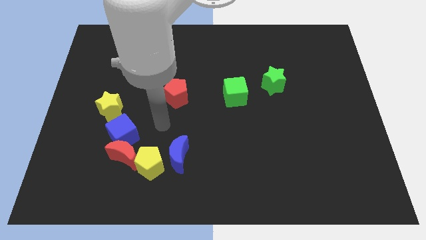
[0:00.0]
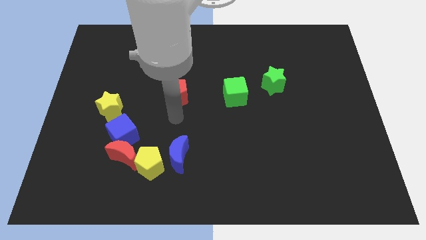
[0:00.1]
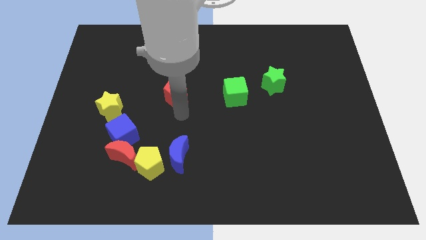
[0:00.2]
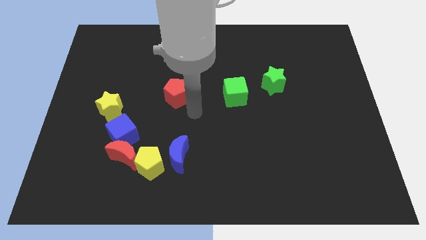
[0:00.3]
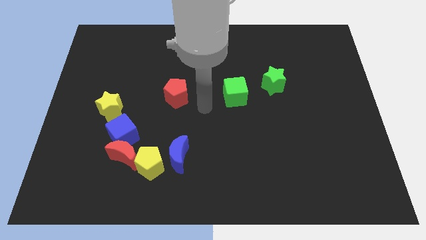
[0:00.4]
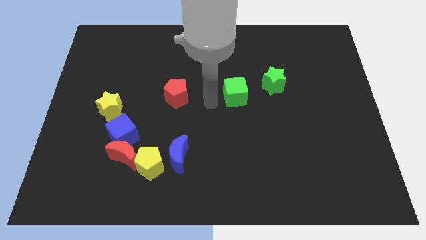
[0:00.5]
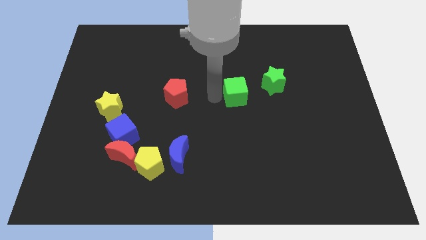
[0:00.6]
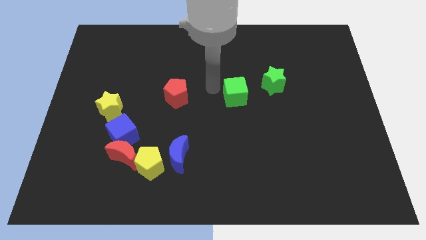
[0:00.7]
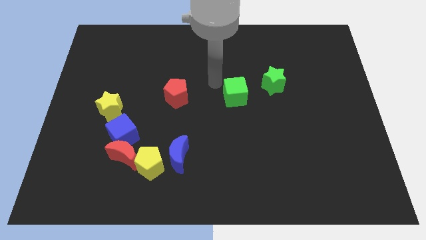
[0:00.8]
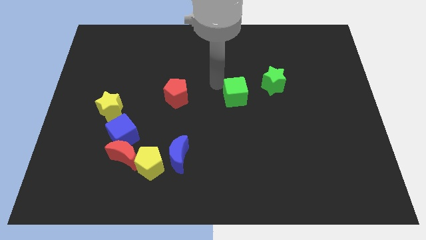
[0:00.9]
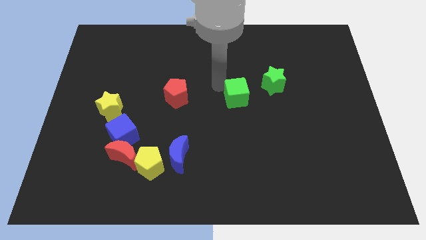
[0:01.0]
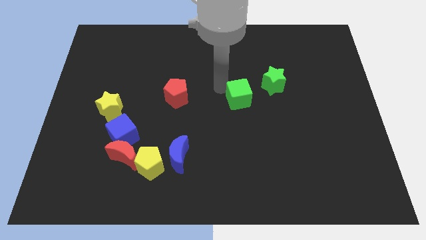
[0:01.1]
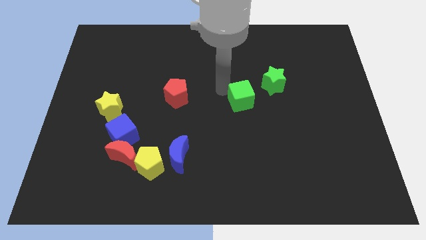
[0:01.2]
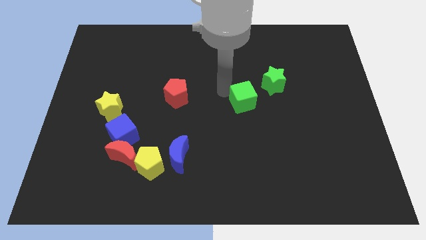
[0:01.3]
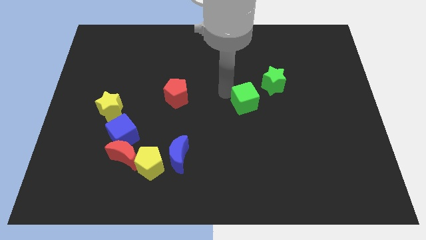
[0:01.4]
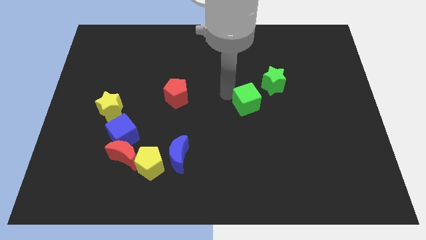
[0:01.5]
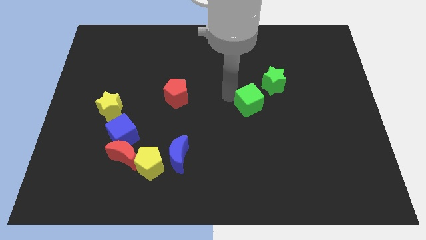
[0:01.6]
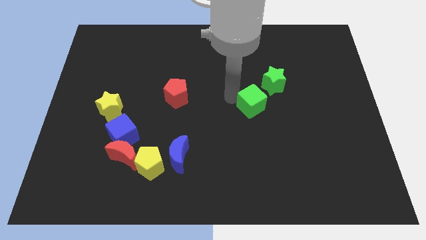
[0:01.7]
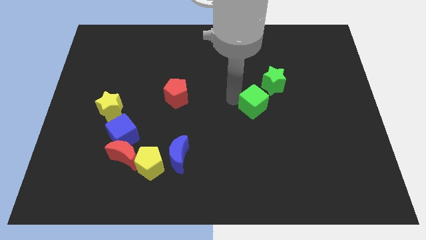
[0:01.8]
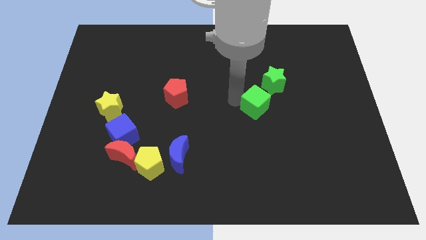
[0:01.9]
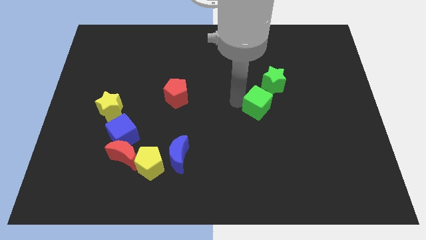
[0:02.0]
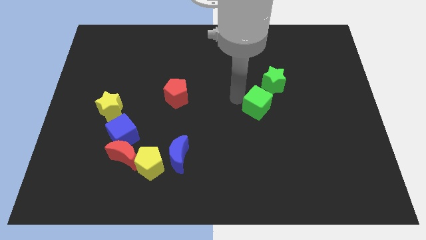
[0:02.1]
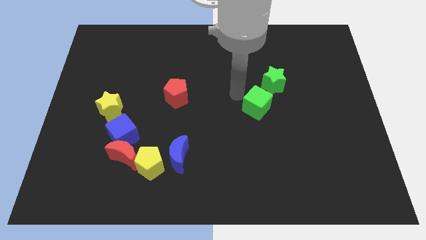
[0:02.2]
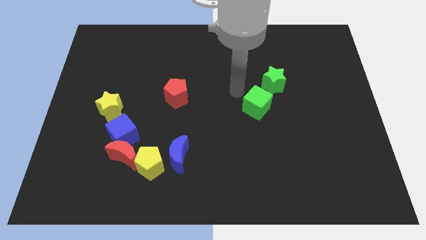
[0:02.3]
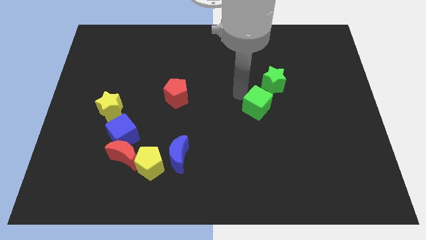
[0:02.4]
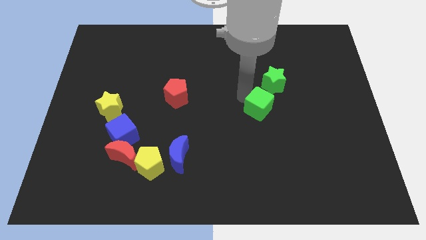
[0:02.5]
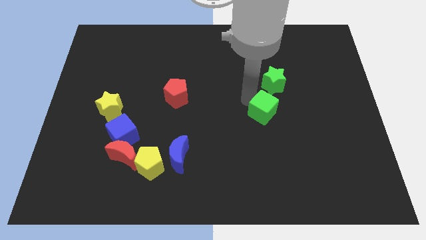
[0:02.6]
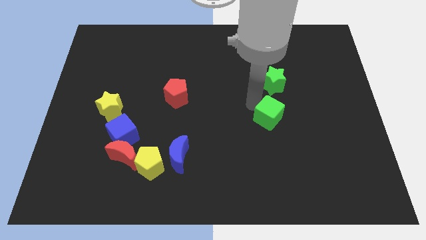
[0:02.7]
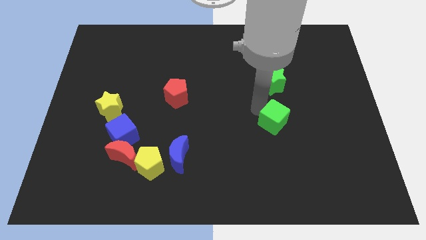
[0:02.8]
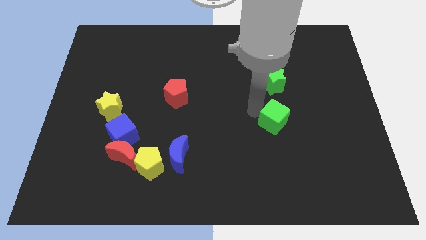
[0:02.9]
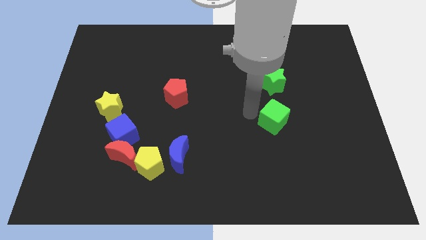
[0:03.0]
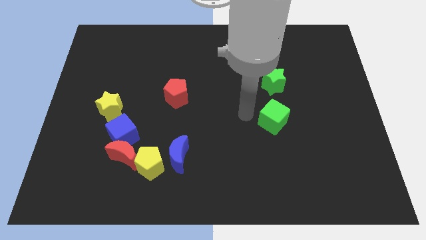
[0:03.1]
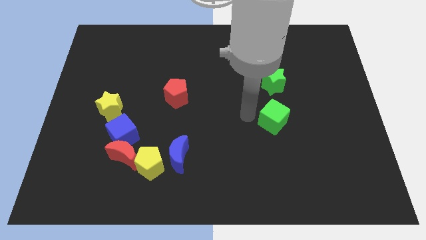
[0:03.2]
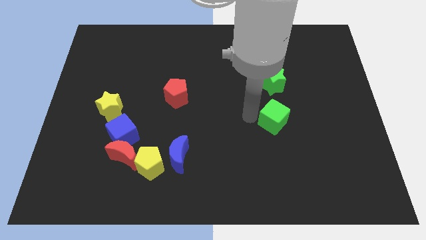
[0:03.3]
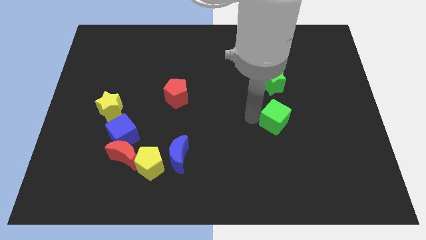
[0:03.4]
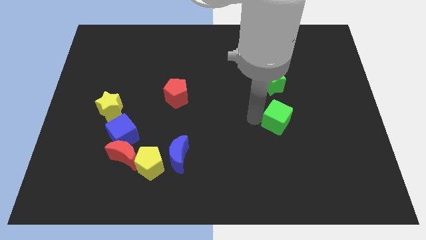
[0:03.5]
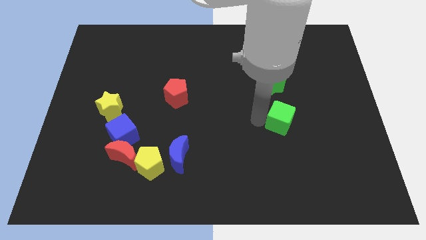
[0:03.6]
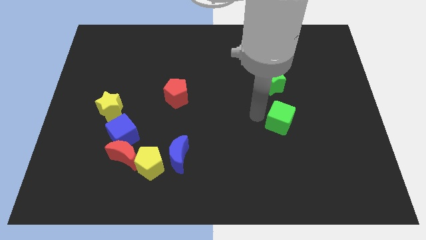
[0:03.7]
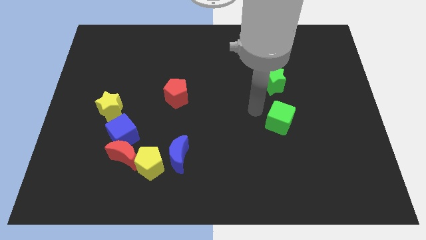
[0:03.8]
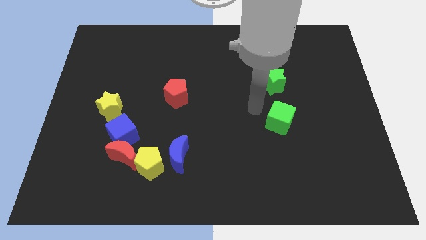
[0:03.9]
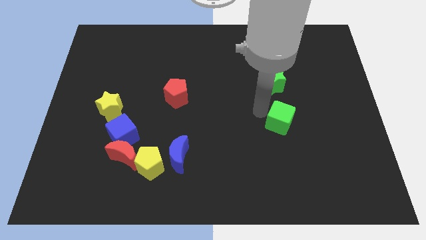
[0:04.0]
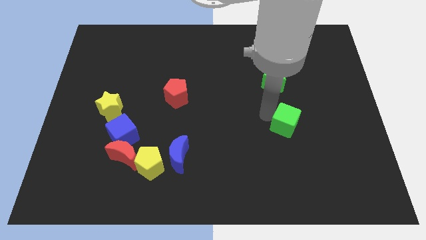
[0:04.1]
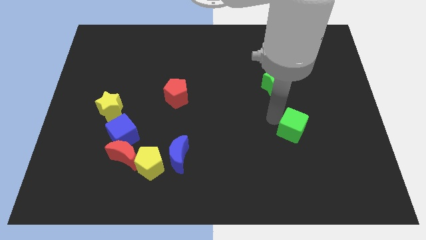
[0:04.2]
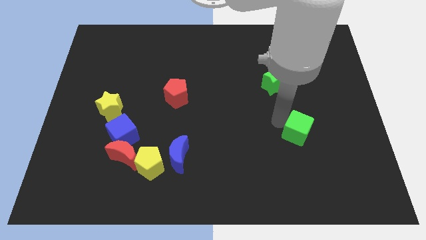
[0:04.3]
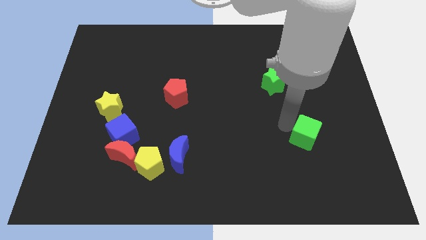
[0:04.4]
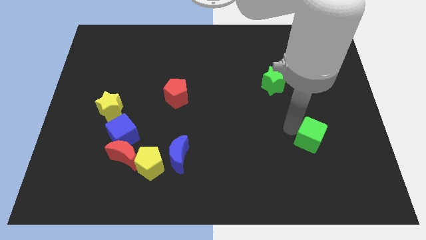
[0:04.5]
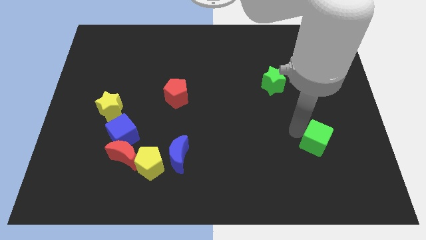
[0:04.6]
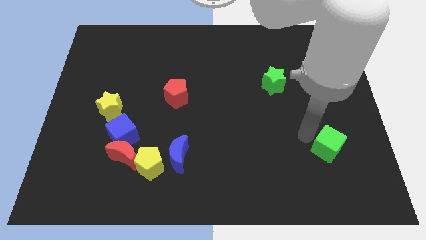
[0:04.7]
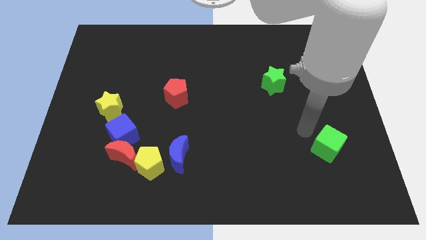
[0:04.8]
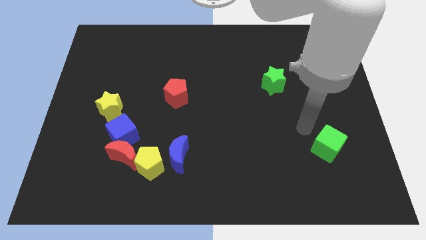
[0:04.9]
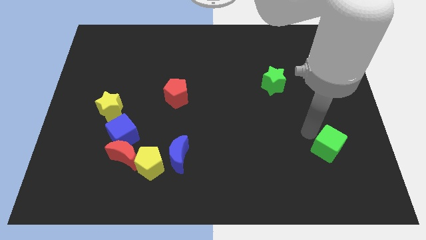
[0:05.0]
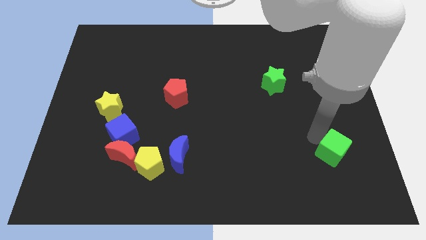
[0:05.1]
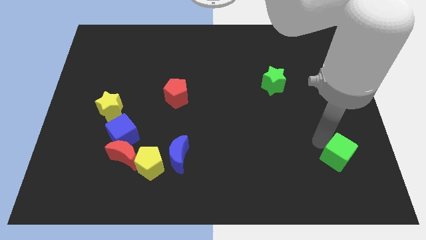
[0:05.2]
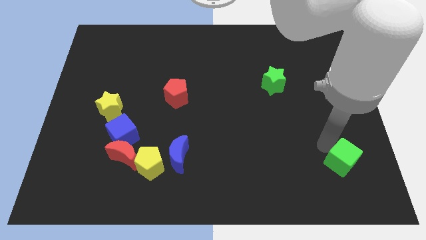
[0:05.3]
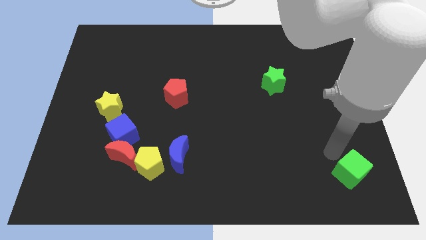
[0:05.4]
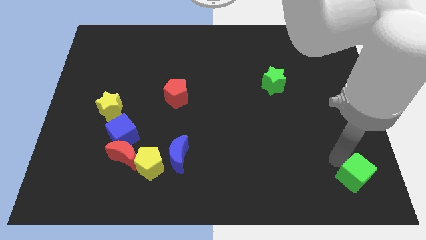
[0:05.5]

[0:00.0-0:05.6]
put the green cube to the bottom right
